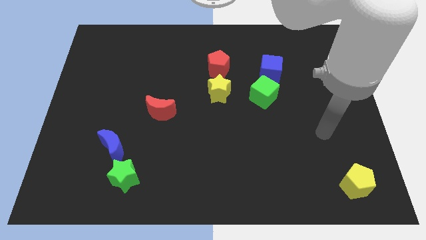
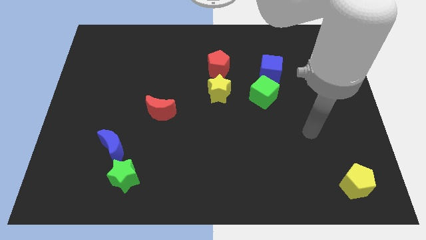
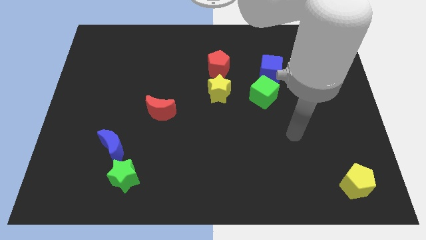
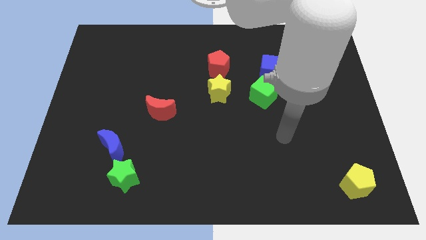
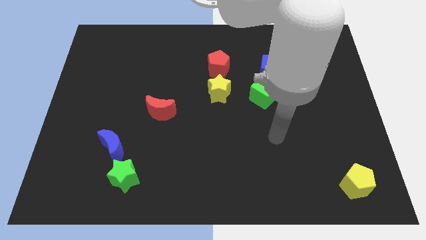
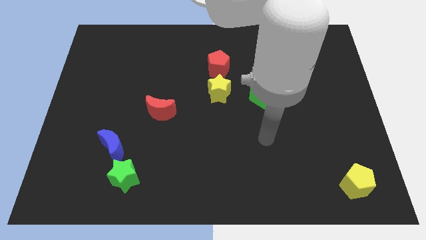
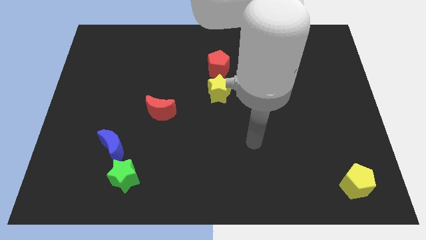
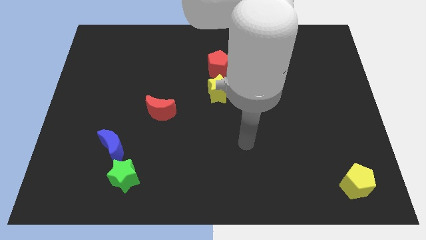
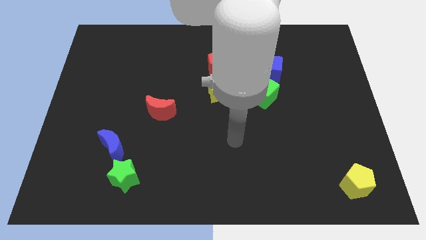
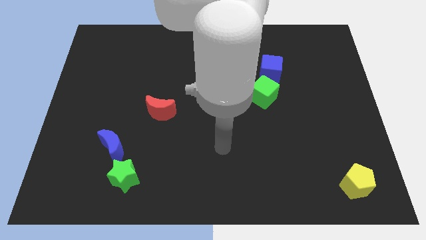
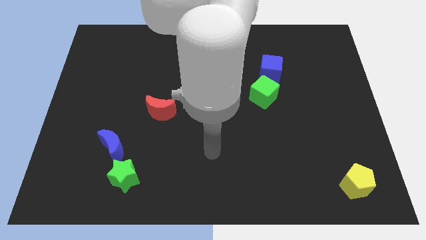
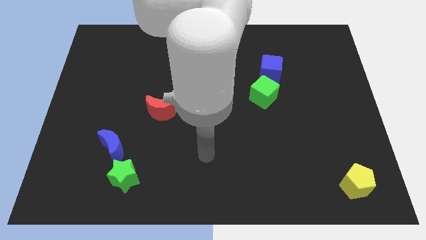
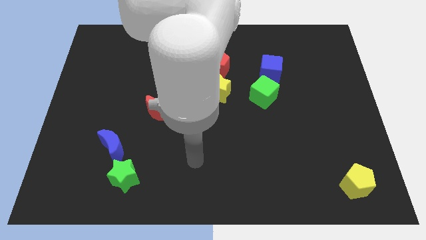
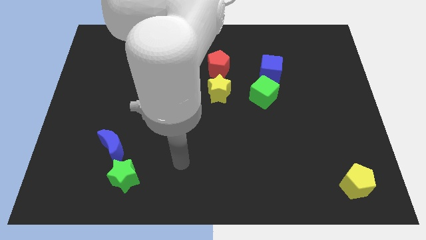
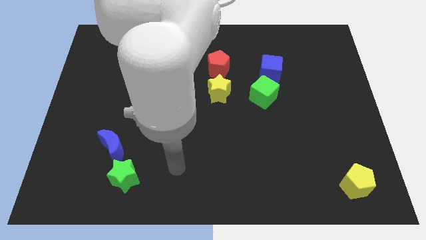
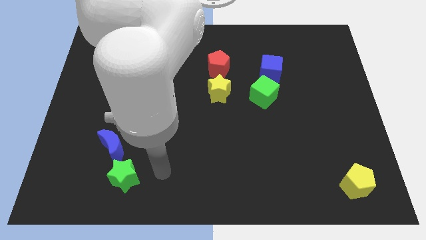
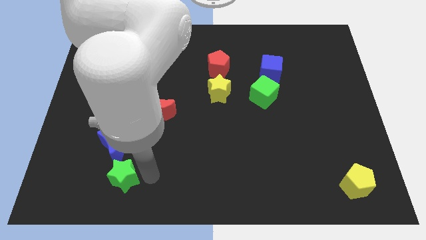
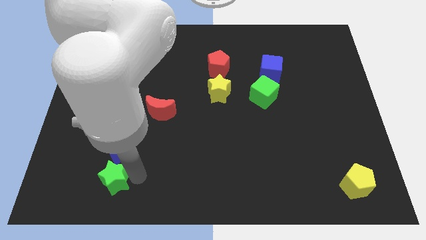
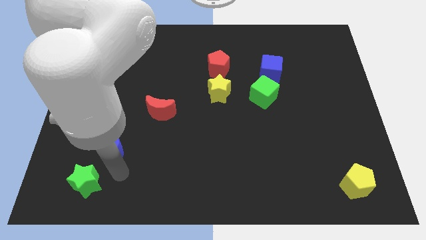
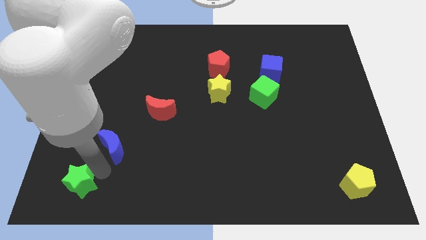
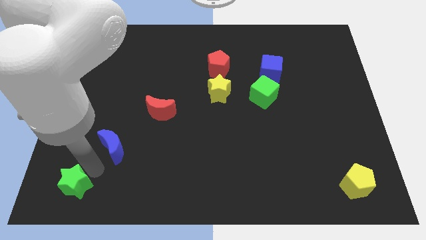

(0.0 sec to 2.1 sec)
separate the blue moon from the green star

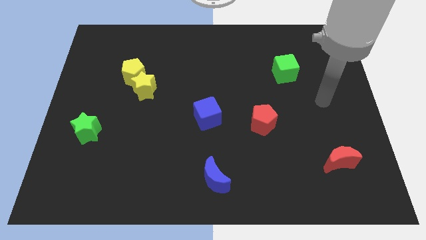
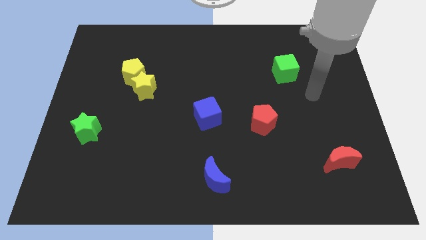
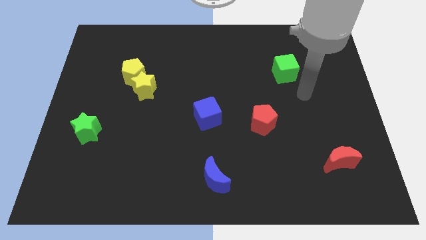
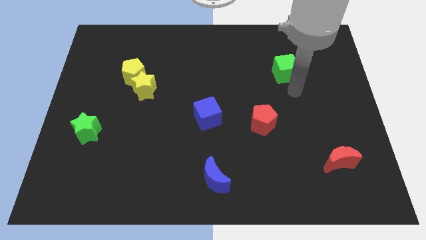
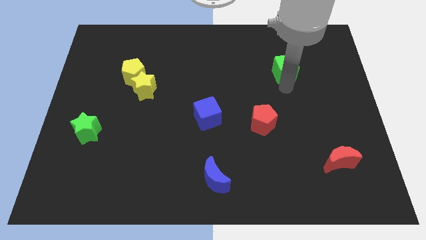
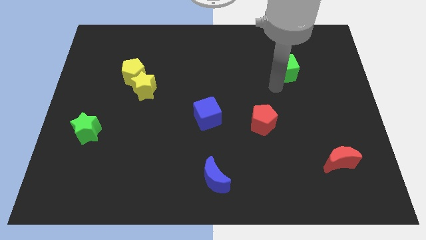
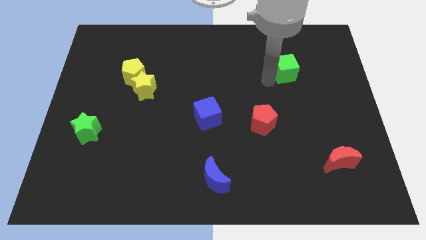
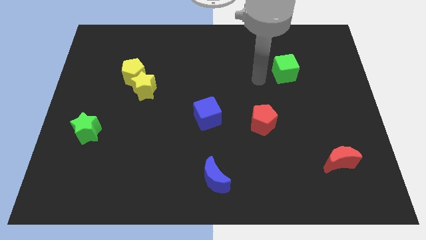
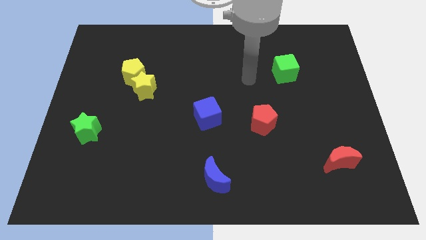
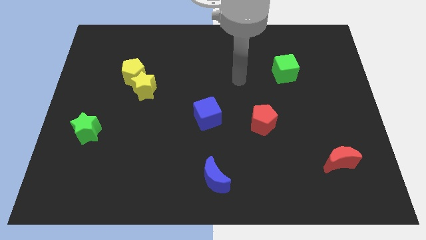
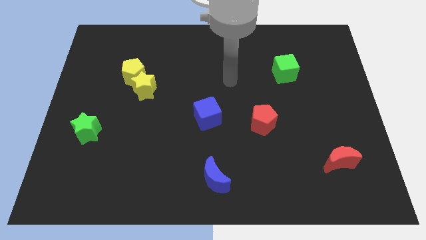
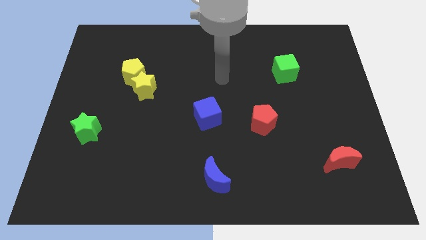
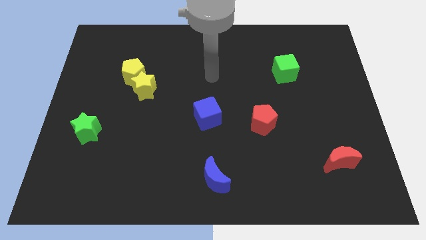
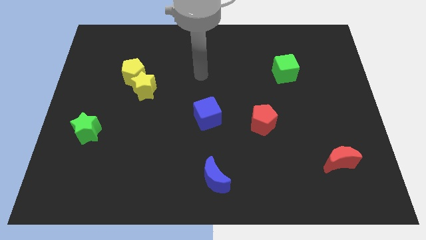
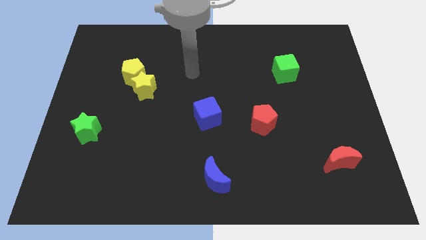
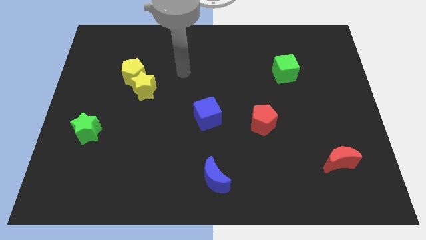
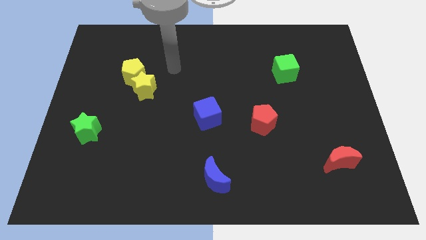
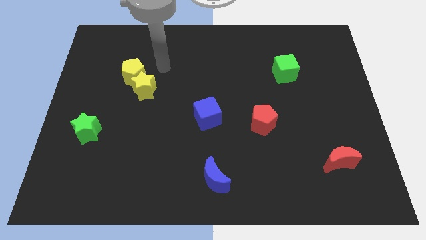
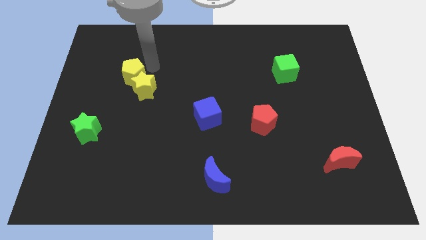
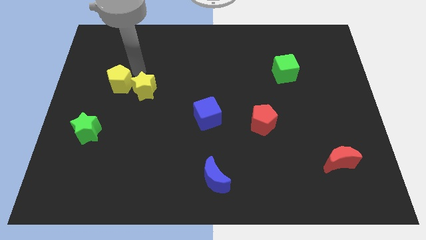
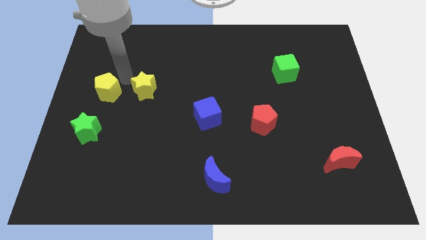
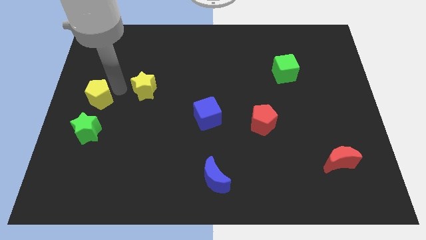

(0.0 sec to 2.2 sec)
separate the yellow star from the yellow pentagon

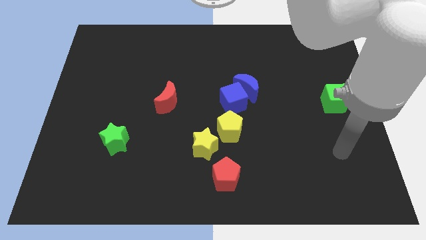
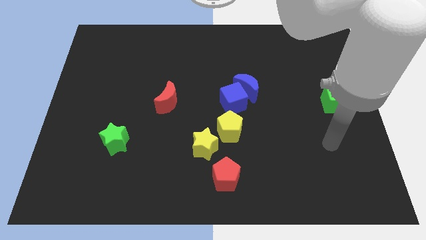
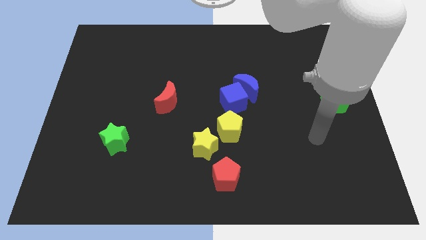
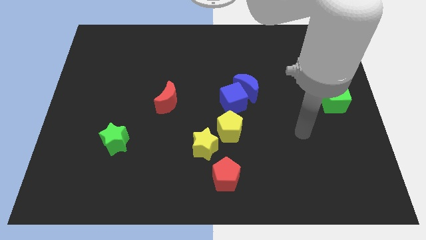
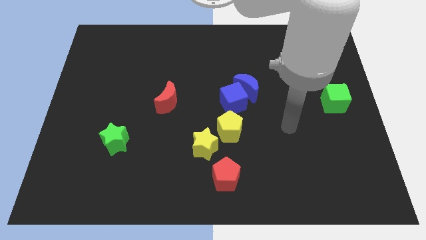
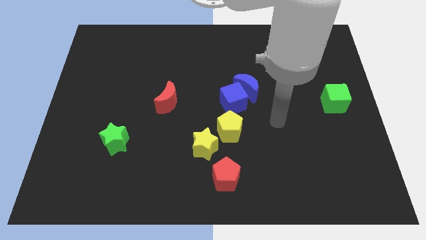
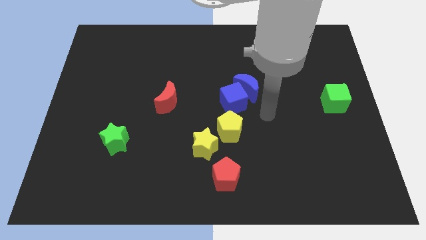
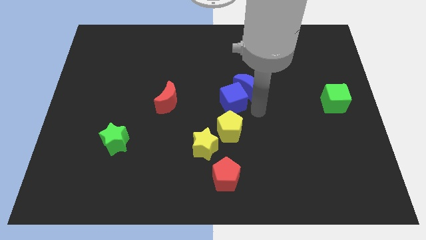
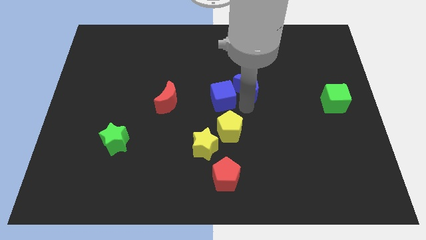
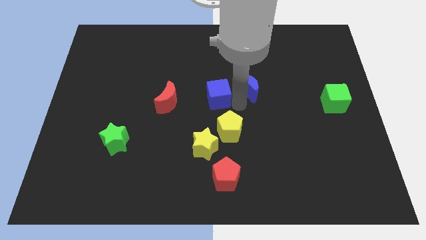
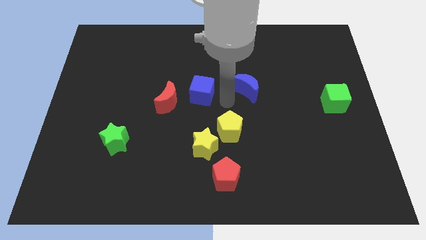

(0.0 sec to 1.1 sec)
move the blue moon away from the blue cube

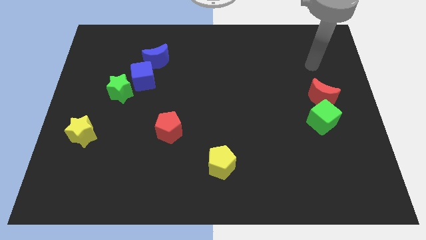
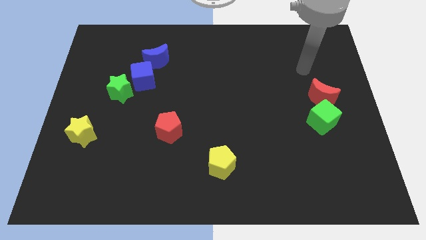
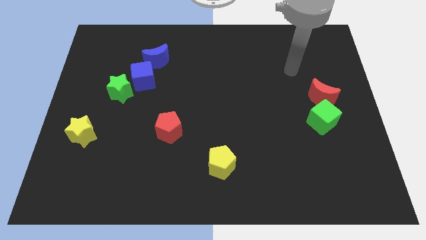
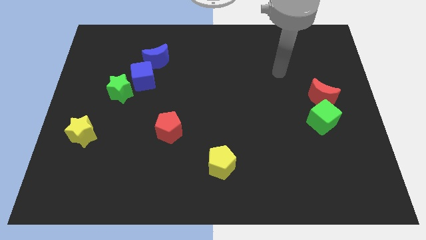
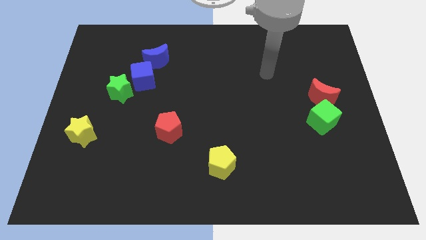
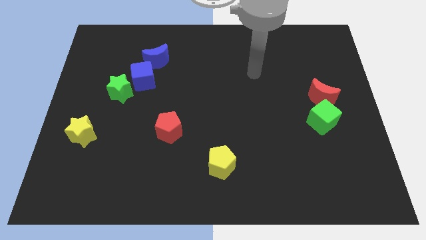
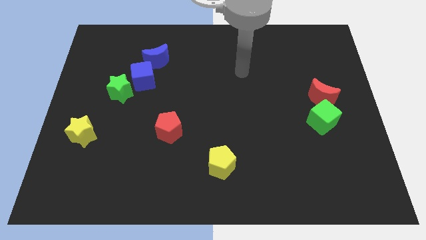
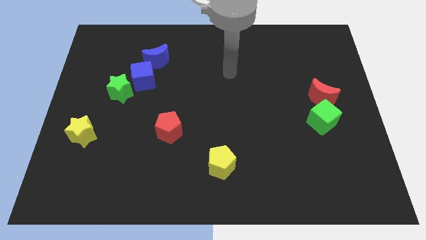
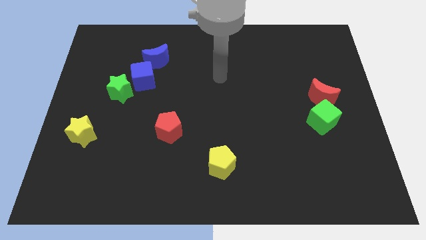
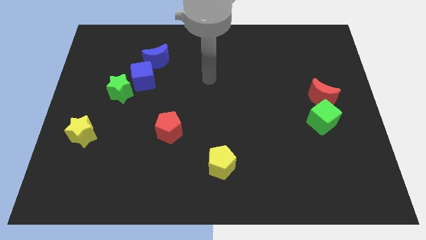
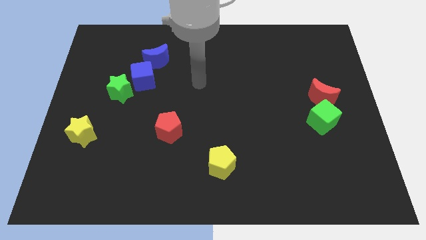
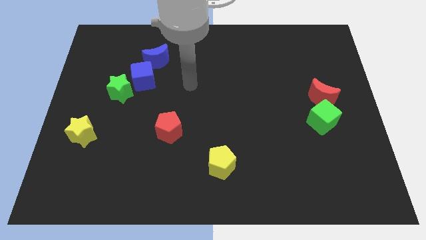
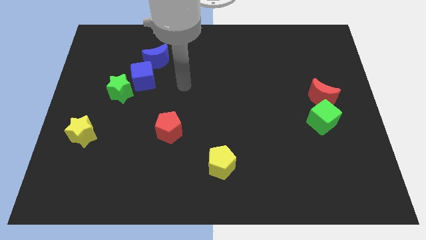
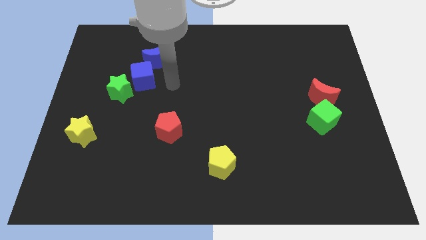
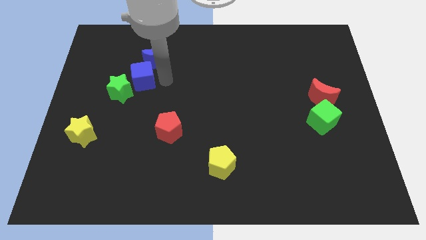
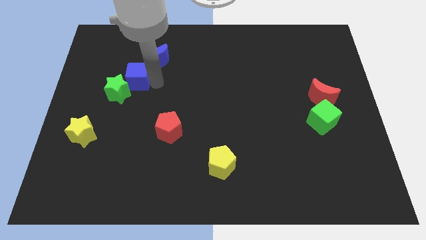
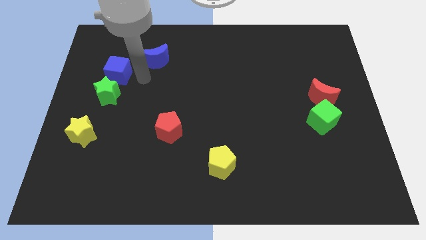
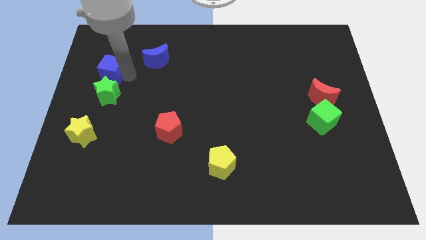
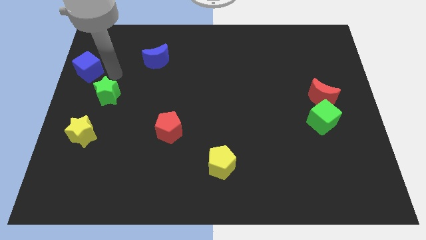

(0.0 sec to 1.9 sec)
pull the green star apart from the blue cube

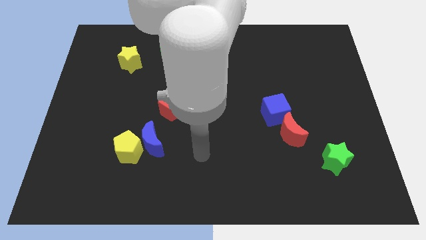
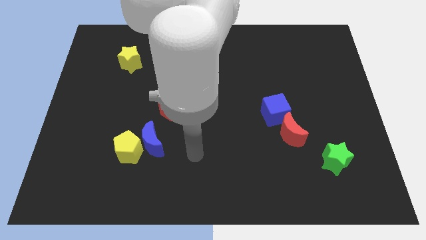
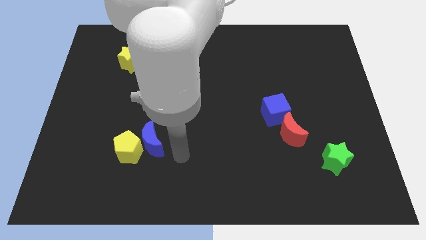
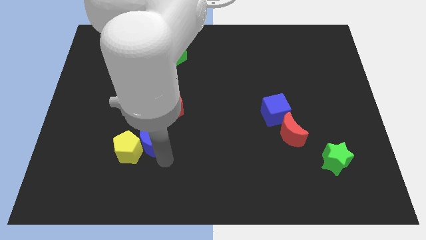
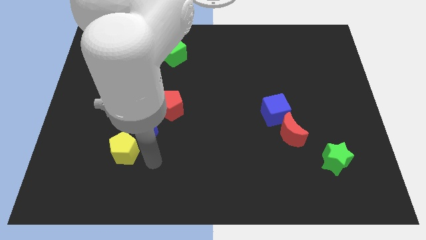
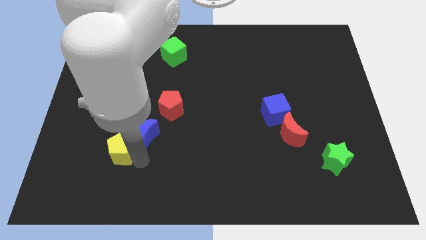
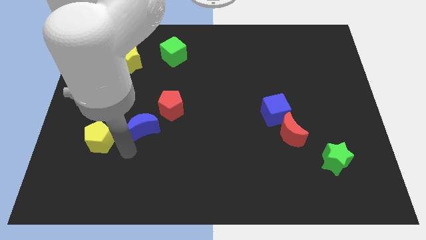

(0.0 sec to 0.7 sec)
pull the blue moon apart from the yellow pentagon
